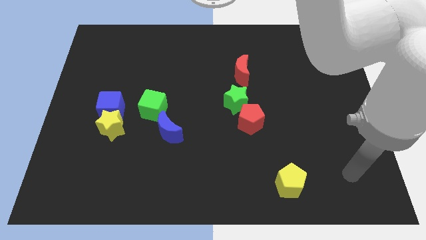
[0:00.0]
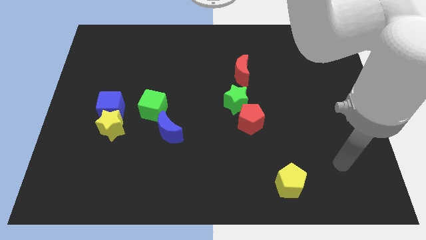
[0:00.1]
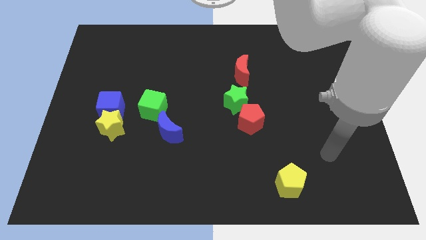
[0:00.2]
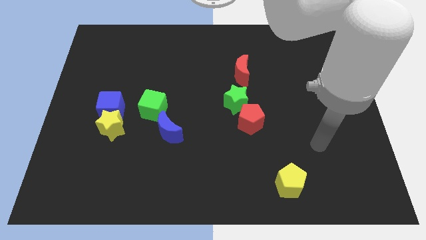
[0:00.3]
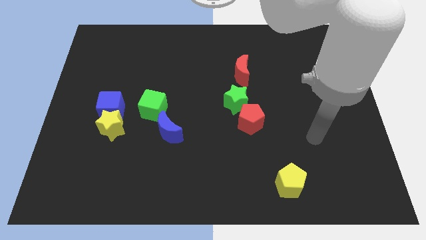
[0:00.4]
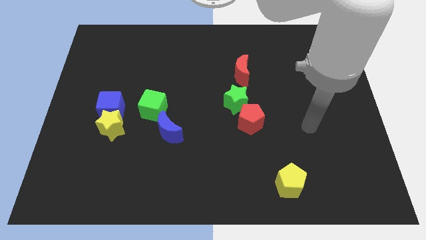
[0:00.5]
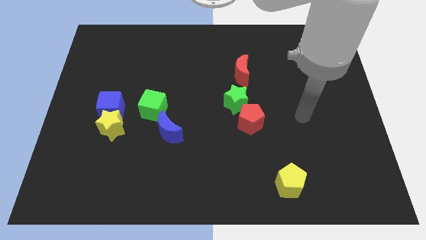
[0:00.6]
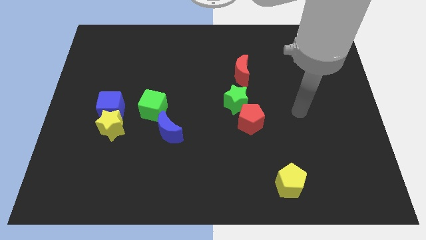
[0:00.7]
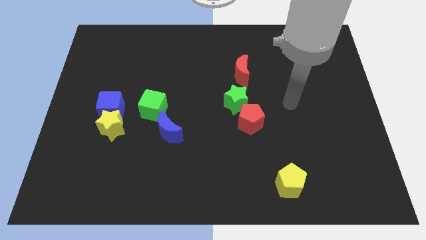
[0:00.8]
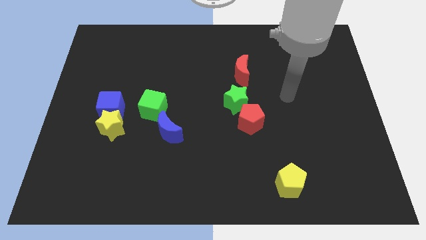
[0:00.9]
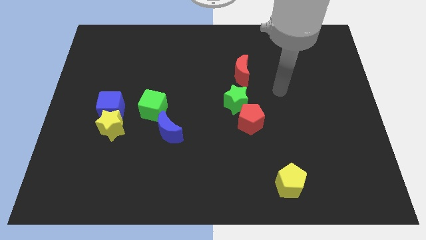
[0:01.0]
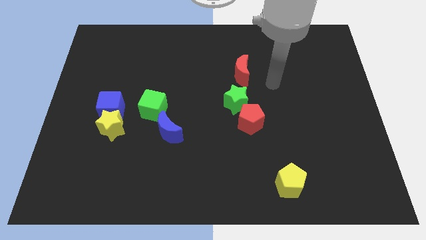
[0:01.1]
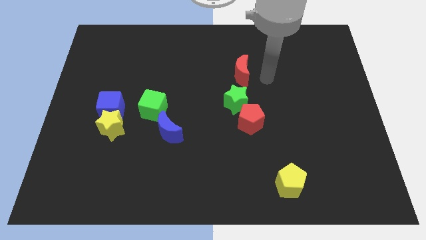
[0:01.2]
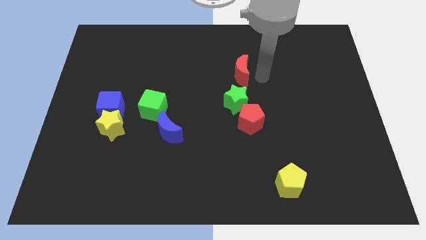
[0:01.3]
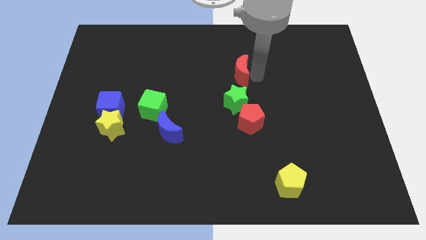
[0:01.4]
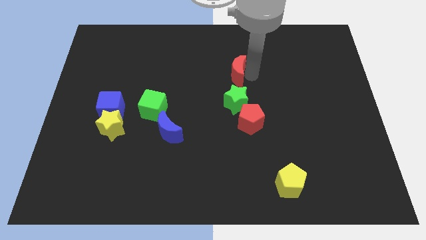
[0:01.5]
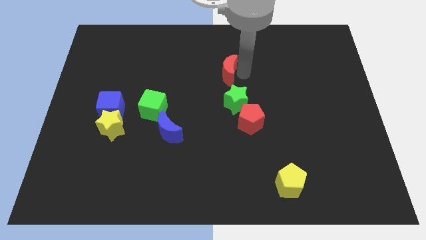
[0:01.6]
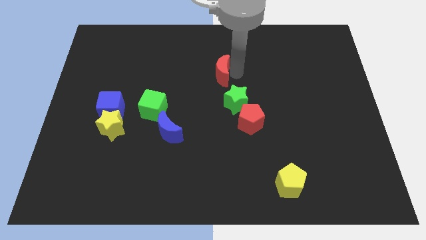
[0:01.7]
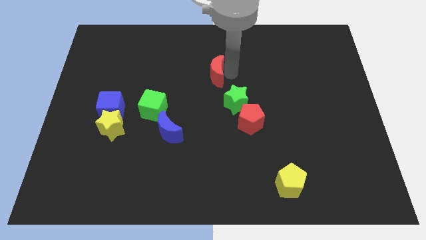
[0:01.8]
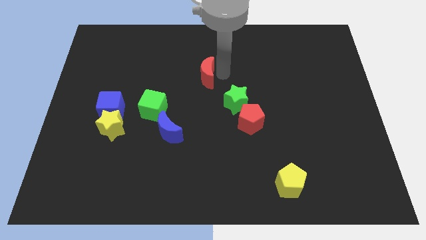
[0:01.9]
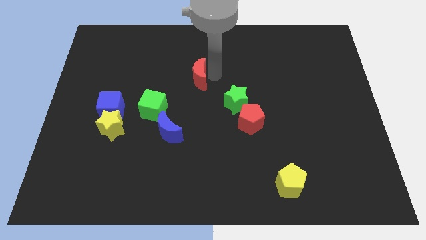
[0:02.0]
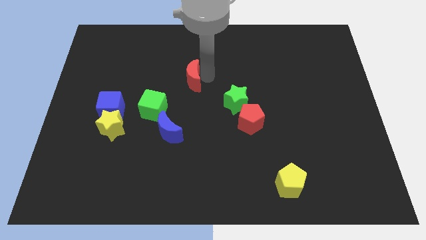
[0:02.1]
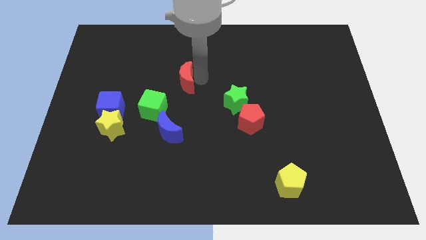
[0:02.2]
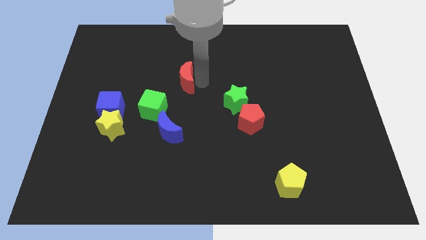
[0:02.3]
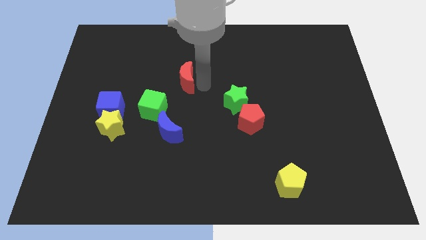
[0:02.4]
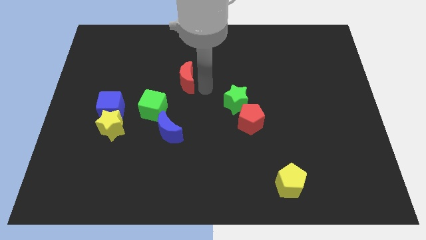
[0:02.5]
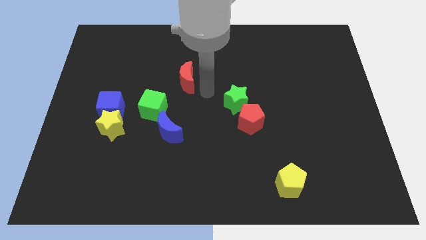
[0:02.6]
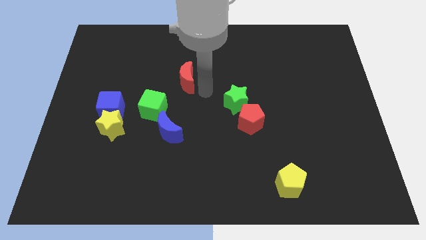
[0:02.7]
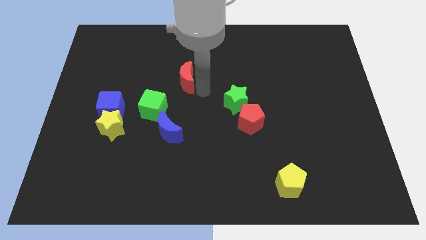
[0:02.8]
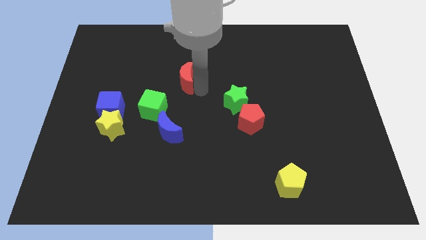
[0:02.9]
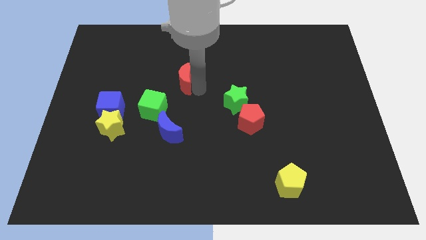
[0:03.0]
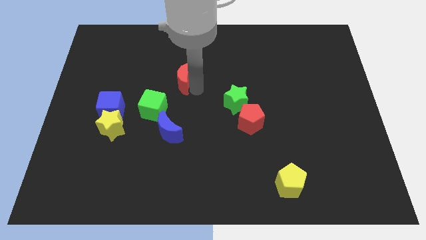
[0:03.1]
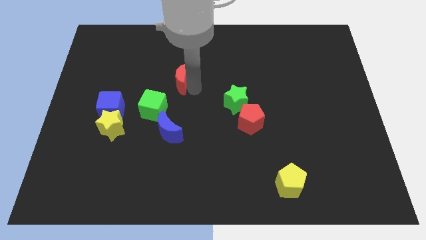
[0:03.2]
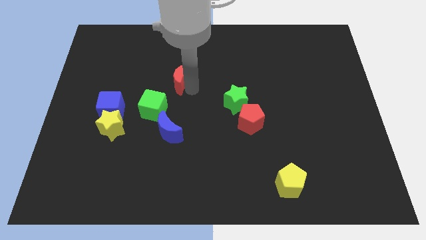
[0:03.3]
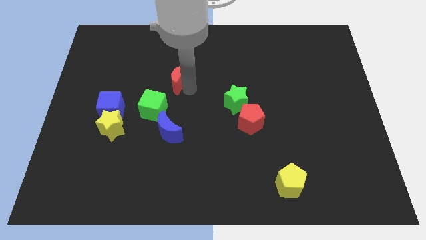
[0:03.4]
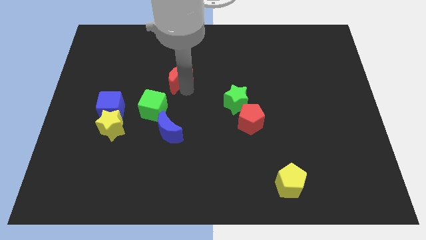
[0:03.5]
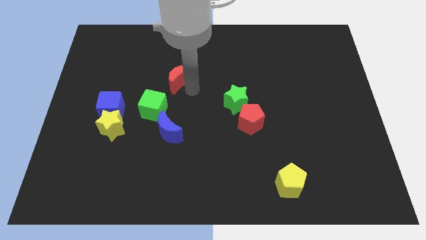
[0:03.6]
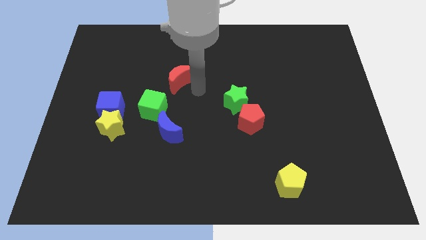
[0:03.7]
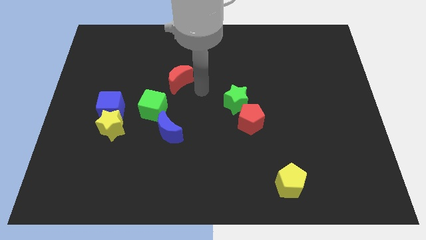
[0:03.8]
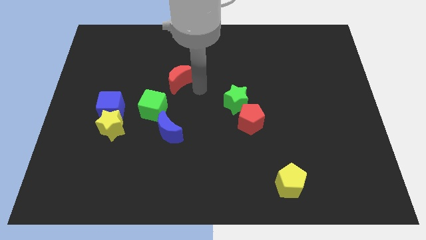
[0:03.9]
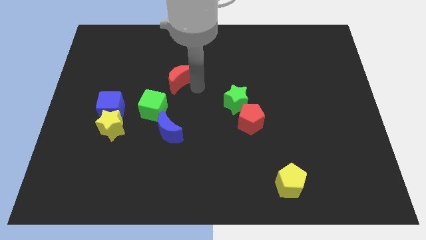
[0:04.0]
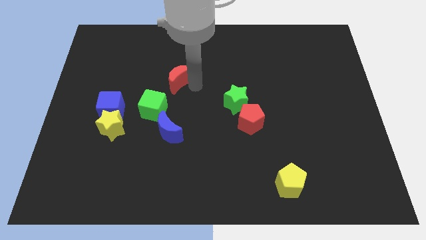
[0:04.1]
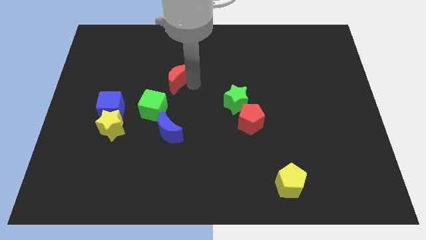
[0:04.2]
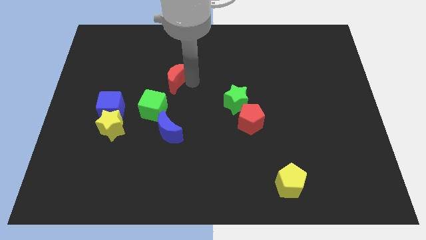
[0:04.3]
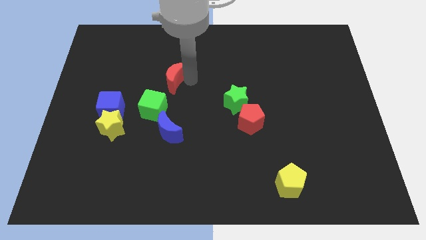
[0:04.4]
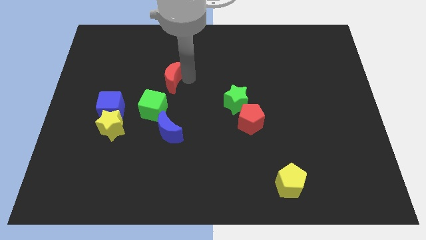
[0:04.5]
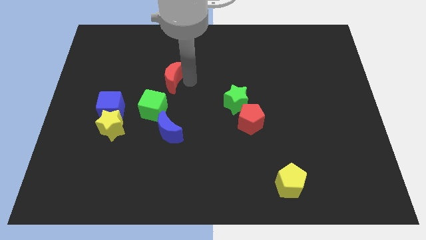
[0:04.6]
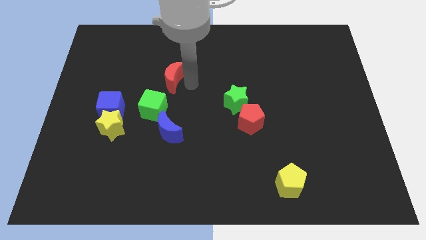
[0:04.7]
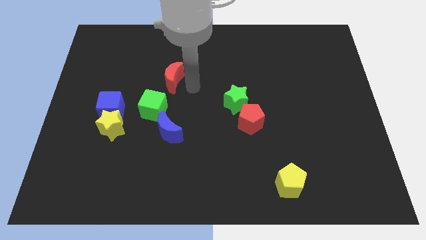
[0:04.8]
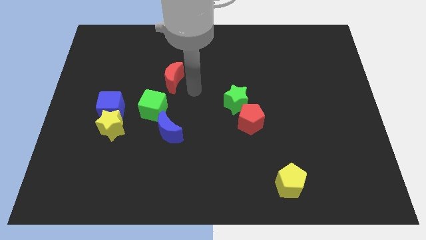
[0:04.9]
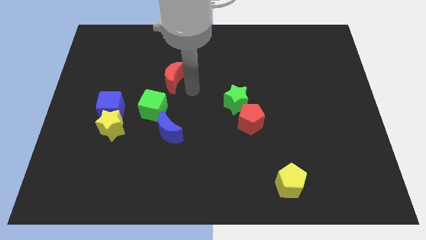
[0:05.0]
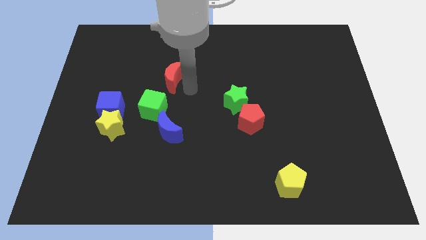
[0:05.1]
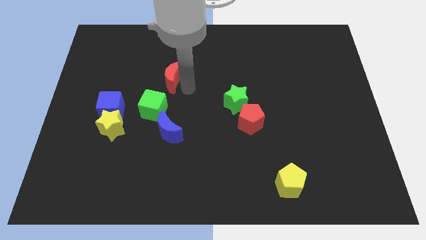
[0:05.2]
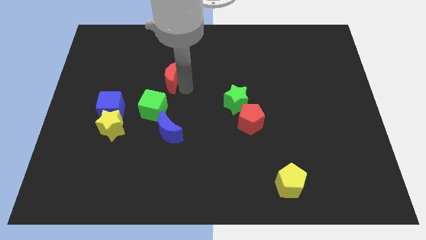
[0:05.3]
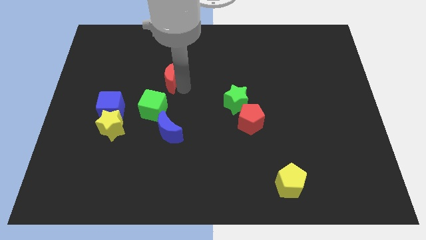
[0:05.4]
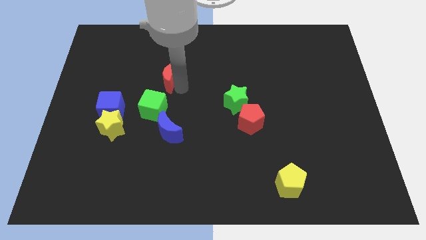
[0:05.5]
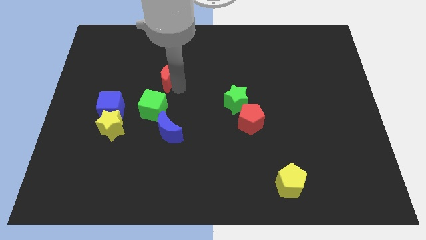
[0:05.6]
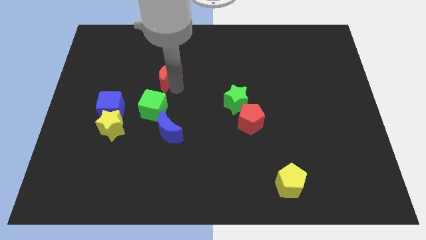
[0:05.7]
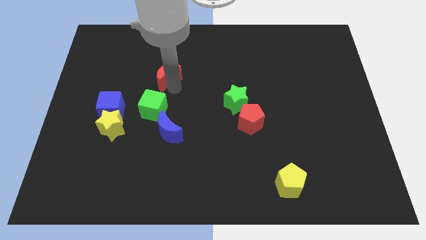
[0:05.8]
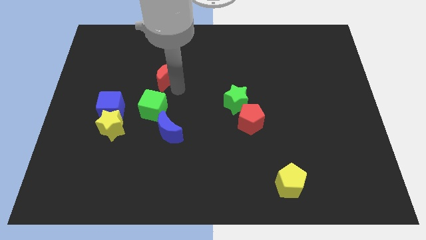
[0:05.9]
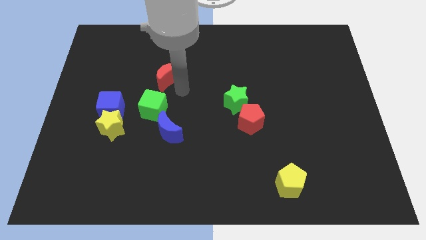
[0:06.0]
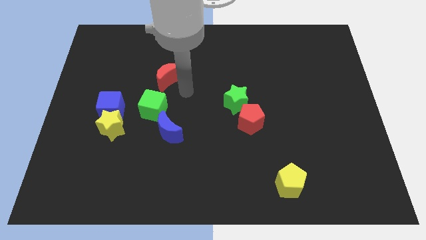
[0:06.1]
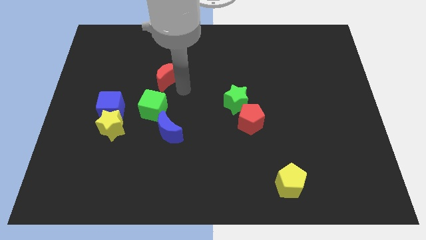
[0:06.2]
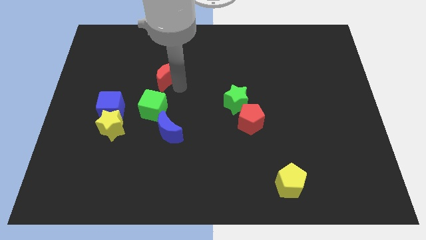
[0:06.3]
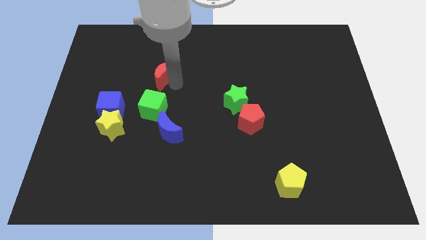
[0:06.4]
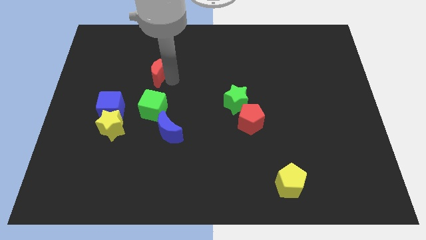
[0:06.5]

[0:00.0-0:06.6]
push the red moon to the left

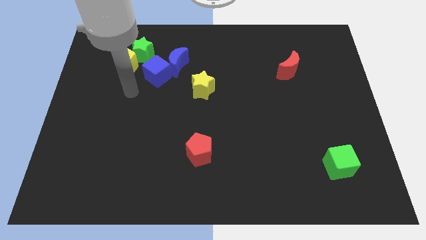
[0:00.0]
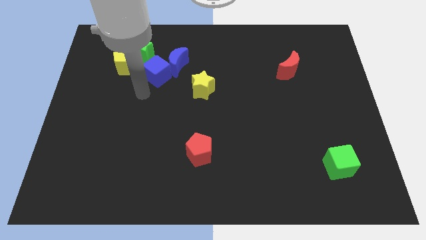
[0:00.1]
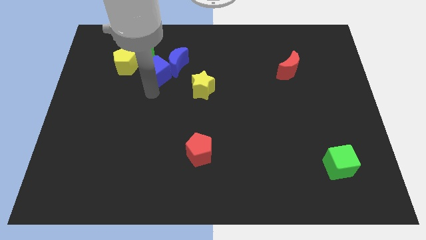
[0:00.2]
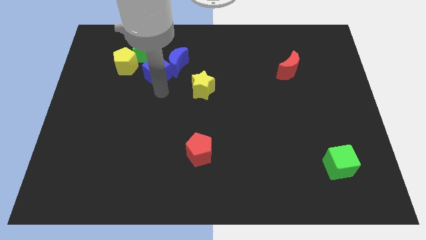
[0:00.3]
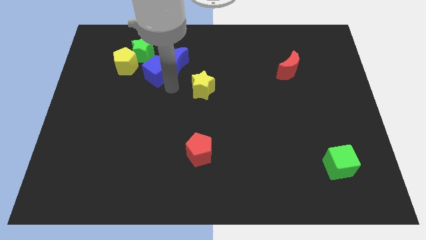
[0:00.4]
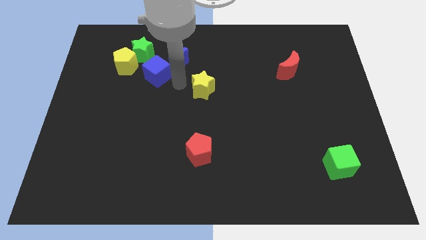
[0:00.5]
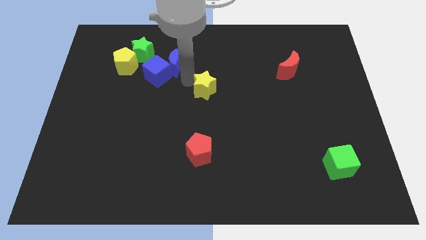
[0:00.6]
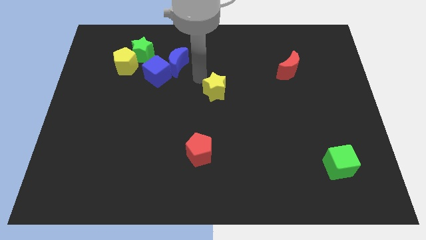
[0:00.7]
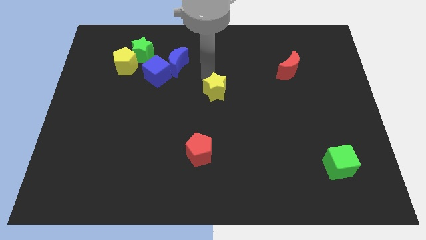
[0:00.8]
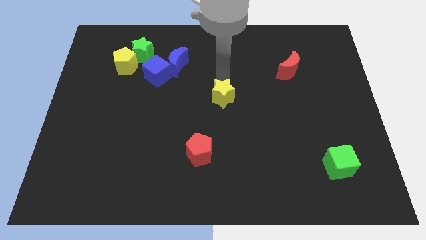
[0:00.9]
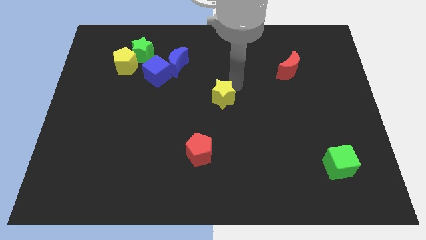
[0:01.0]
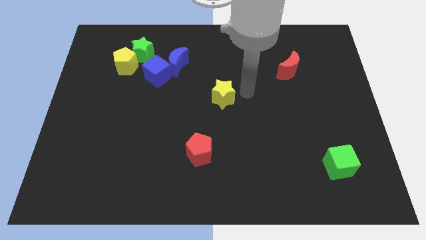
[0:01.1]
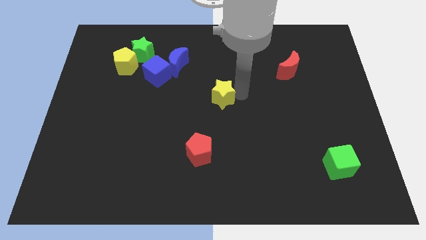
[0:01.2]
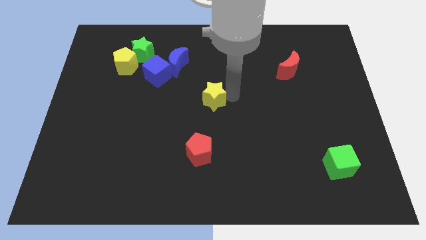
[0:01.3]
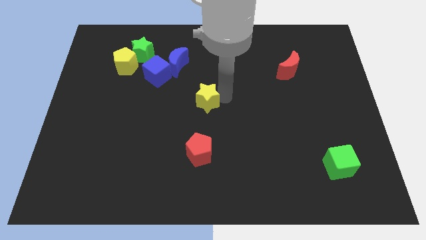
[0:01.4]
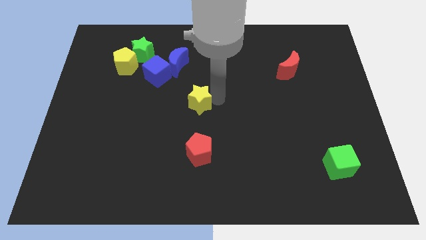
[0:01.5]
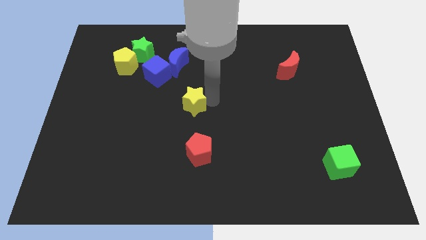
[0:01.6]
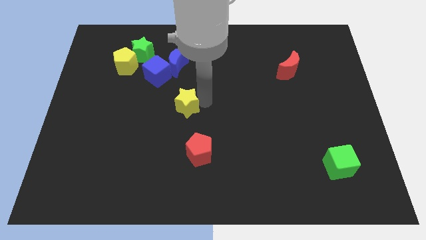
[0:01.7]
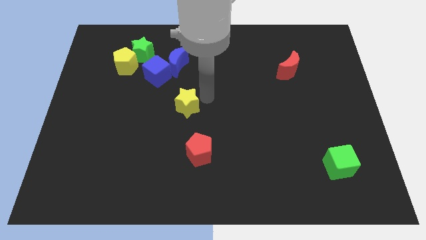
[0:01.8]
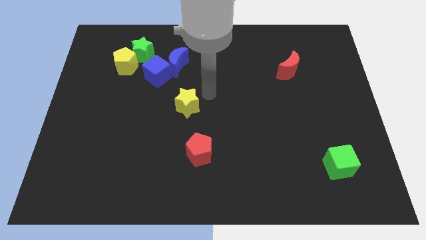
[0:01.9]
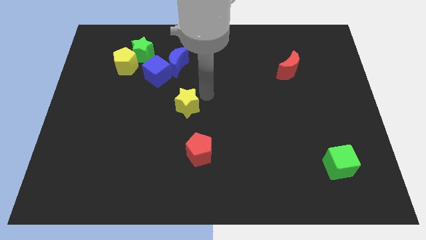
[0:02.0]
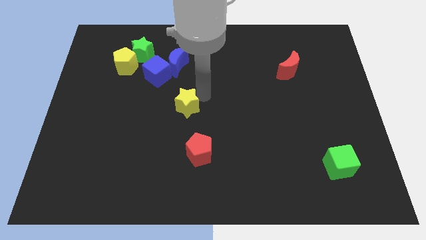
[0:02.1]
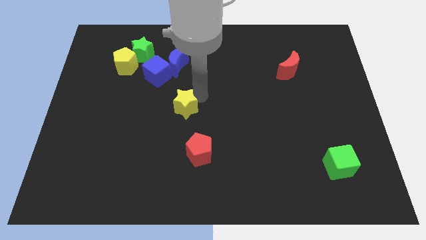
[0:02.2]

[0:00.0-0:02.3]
slightly slide the yellow star diagonally downwards and to the left
